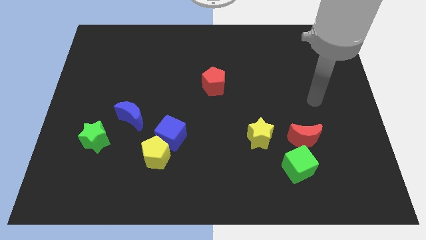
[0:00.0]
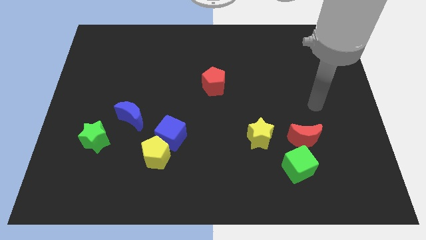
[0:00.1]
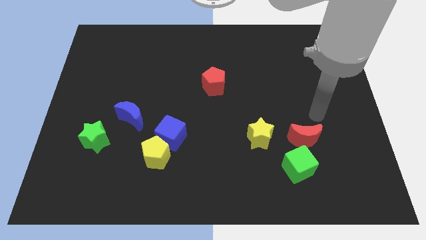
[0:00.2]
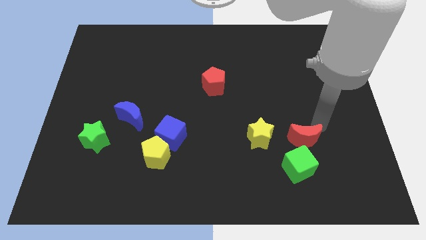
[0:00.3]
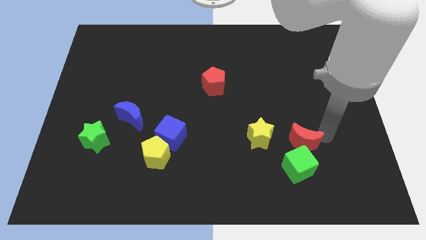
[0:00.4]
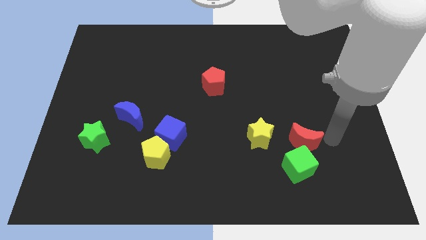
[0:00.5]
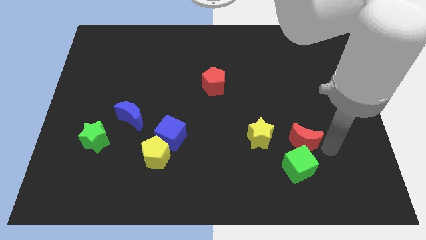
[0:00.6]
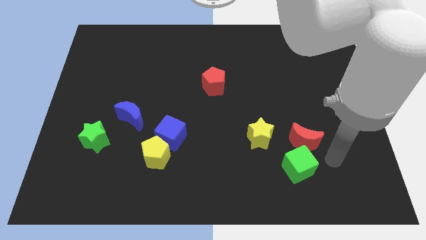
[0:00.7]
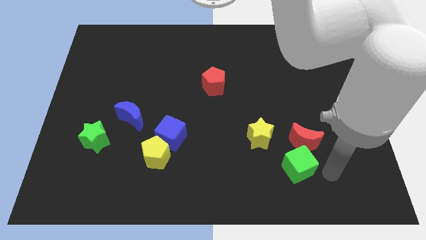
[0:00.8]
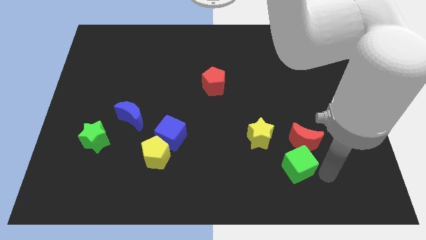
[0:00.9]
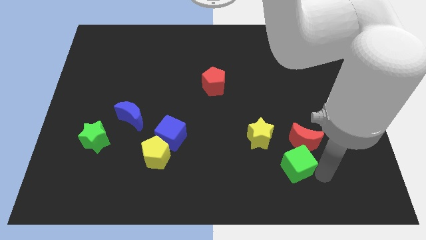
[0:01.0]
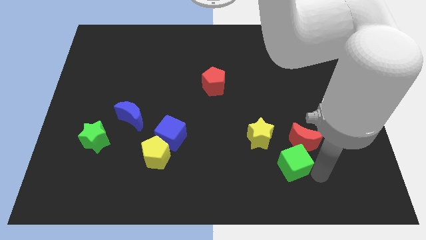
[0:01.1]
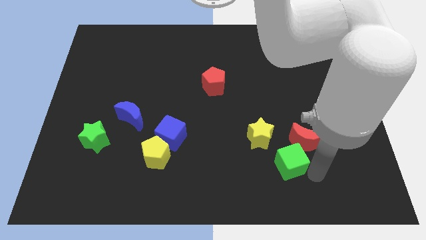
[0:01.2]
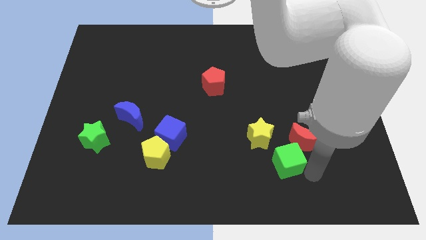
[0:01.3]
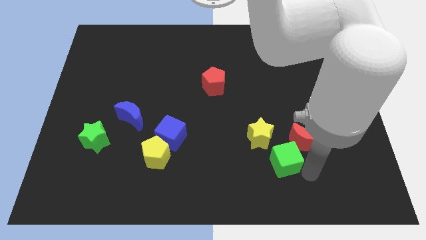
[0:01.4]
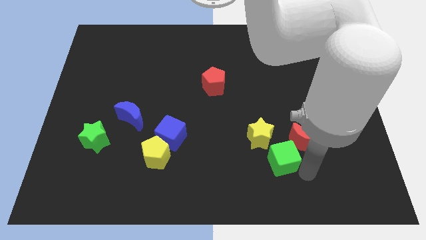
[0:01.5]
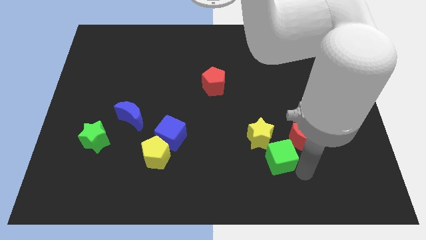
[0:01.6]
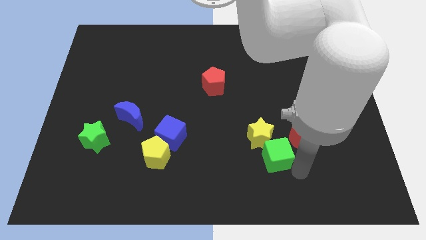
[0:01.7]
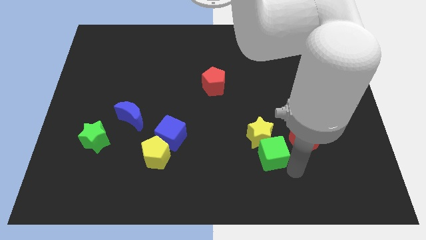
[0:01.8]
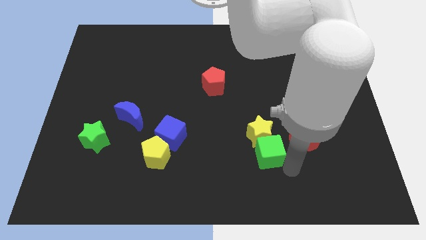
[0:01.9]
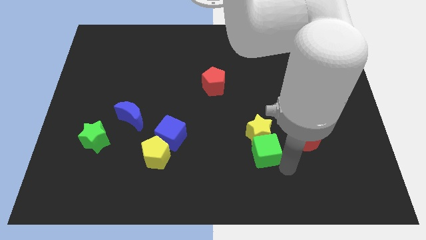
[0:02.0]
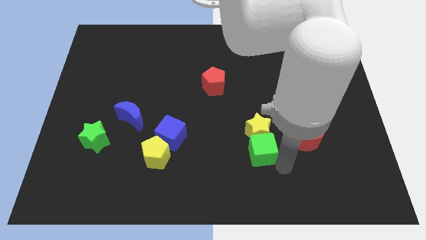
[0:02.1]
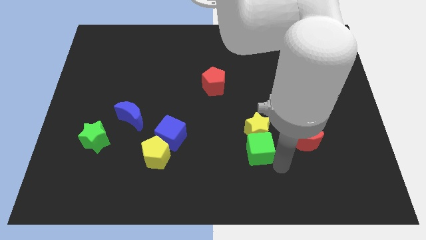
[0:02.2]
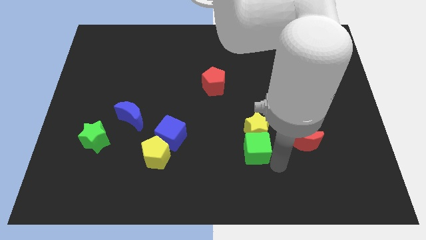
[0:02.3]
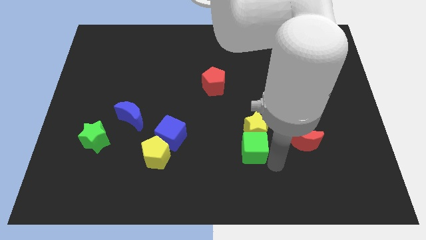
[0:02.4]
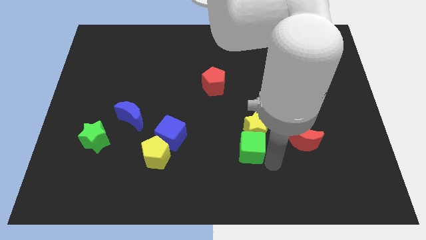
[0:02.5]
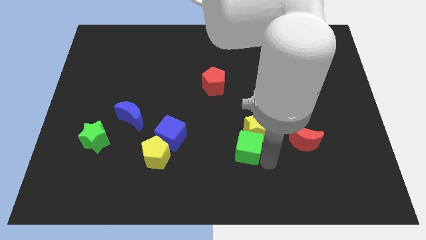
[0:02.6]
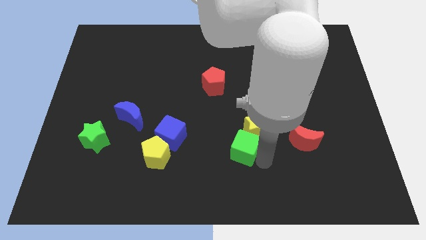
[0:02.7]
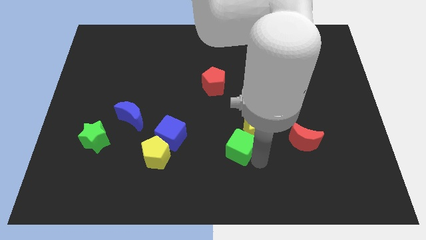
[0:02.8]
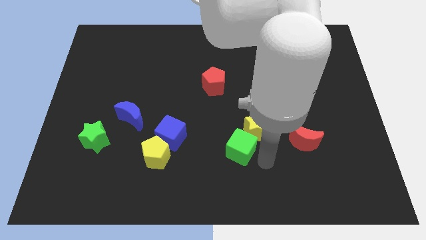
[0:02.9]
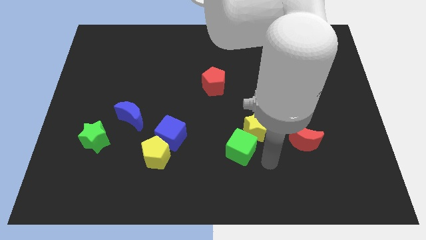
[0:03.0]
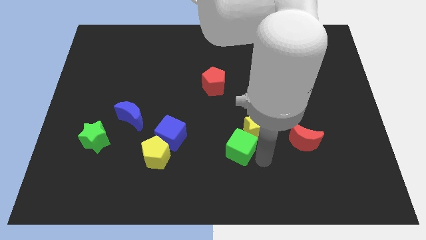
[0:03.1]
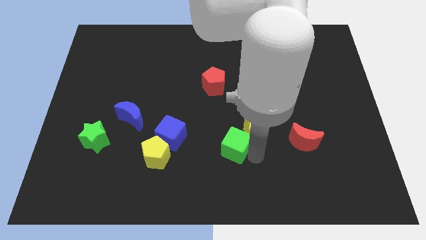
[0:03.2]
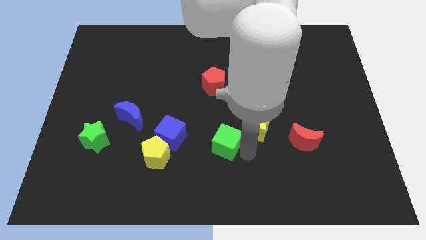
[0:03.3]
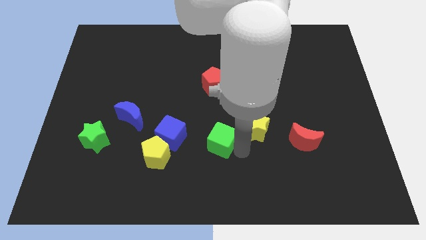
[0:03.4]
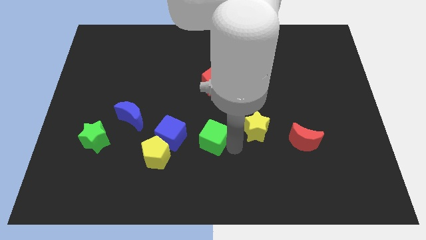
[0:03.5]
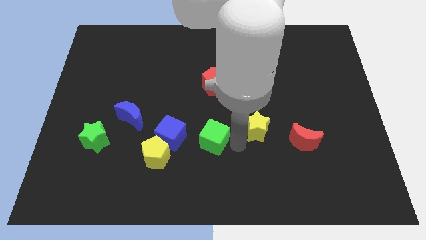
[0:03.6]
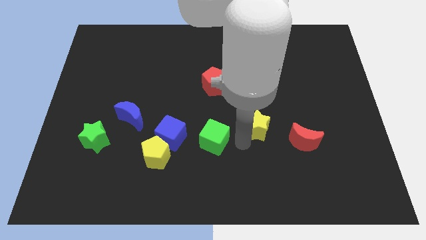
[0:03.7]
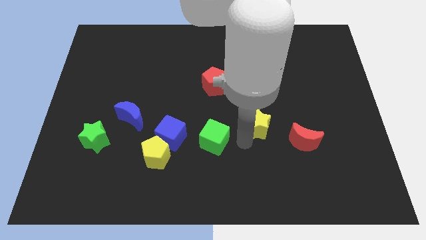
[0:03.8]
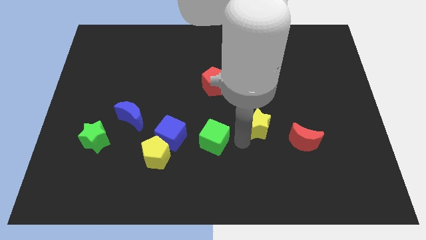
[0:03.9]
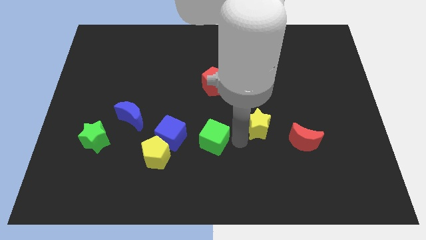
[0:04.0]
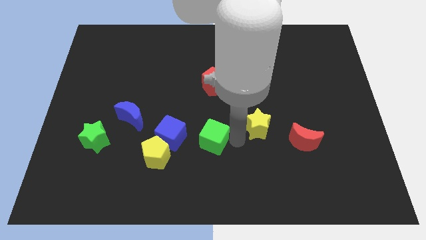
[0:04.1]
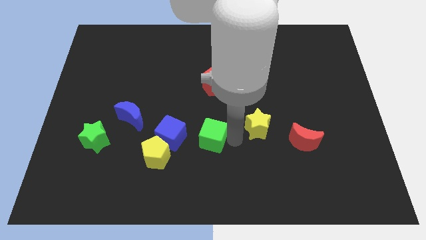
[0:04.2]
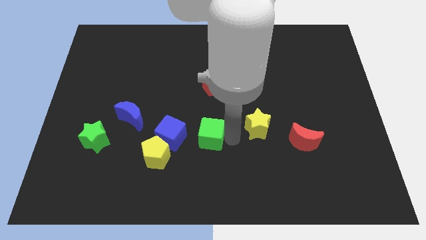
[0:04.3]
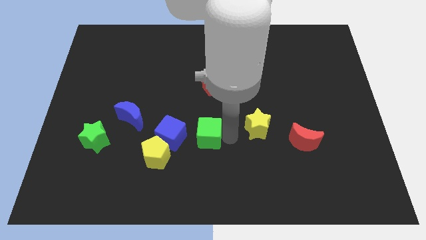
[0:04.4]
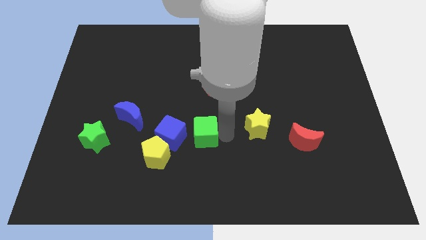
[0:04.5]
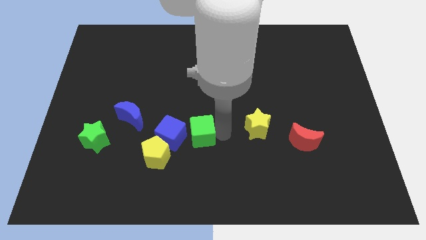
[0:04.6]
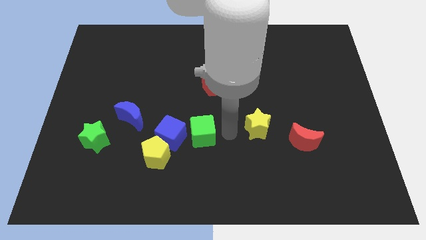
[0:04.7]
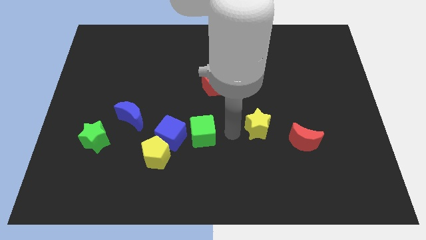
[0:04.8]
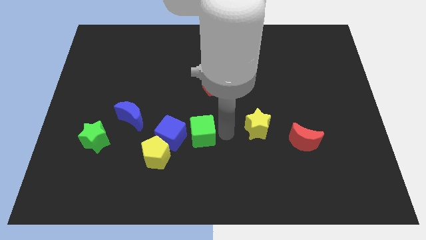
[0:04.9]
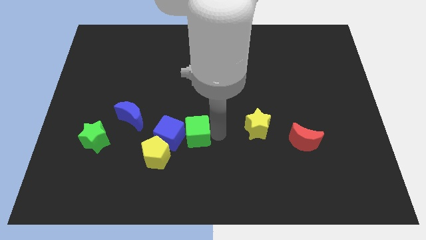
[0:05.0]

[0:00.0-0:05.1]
move the green cube towards the blue cube

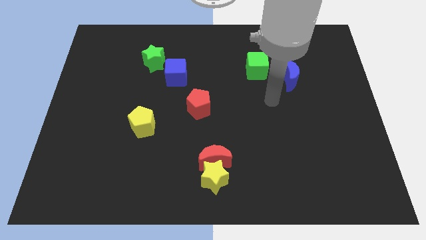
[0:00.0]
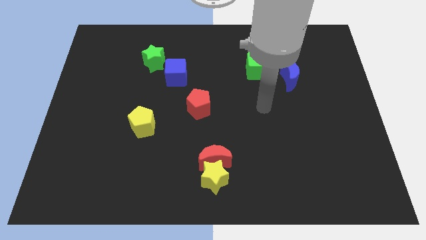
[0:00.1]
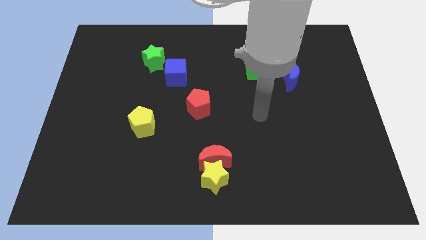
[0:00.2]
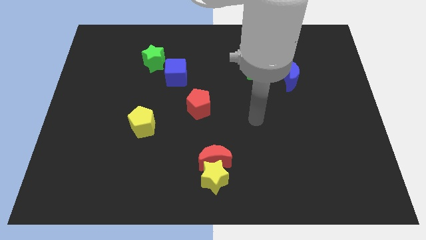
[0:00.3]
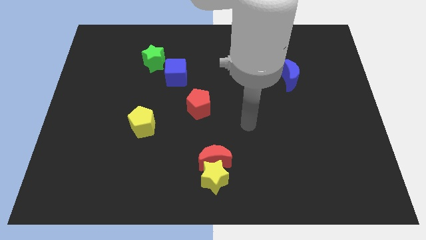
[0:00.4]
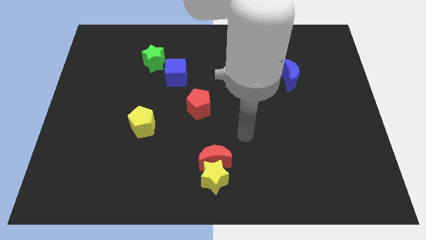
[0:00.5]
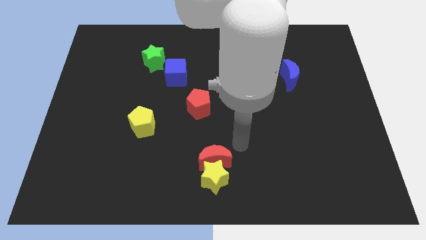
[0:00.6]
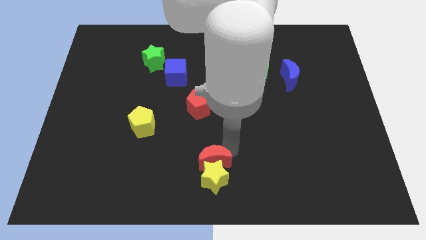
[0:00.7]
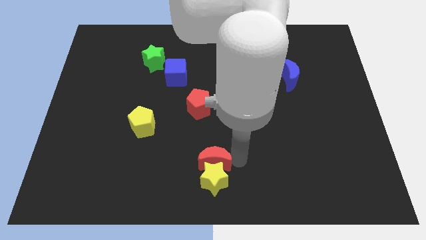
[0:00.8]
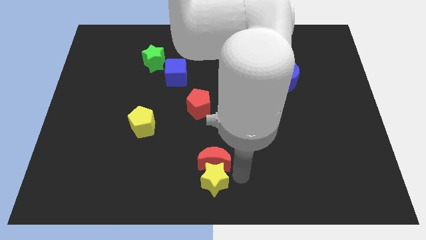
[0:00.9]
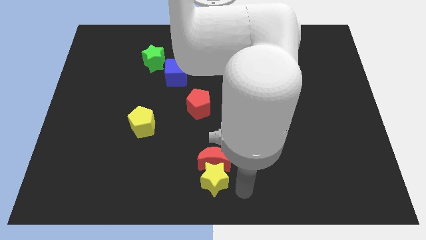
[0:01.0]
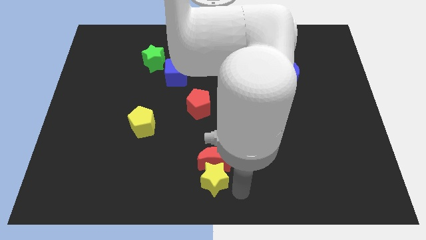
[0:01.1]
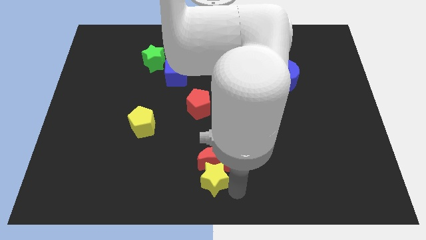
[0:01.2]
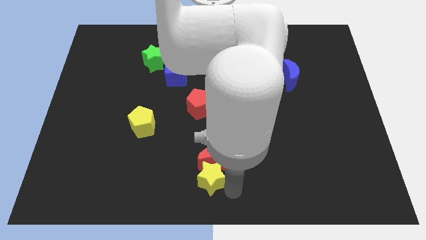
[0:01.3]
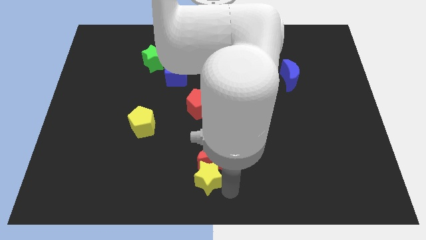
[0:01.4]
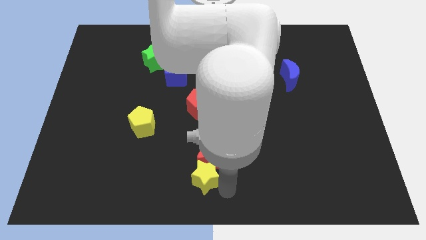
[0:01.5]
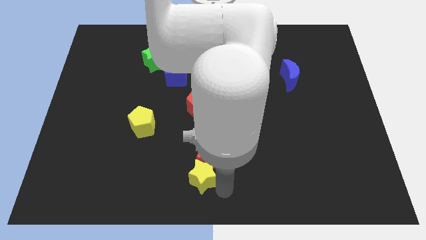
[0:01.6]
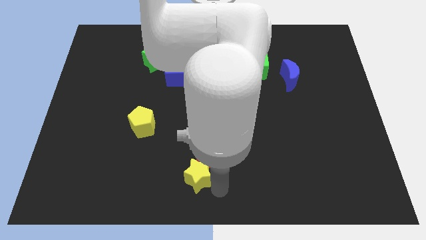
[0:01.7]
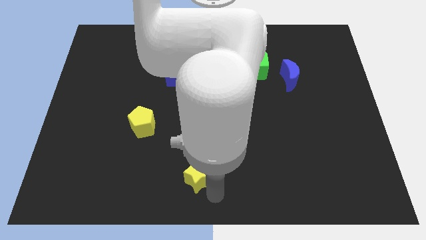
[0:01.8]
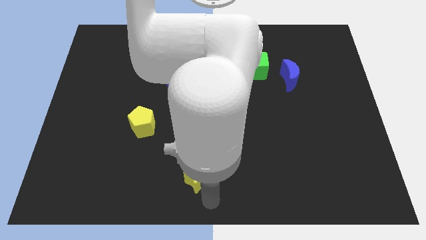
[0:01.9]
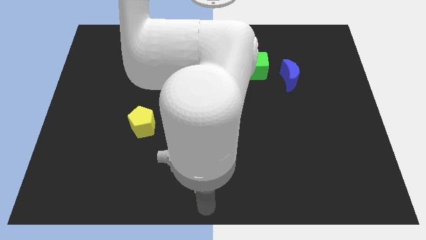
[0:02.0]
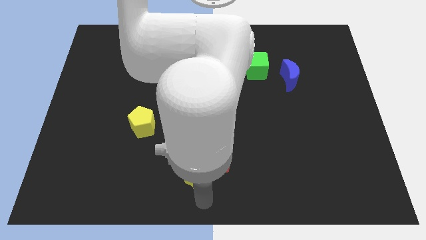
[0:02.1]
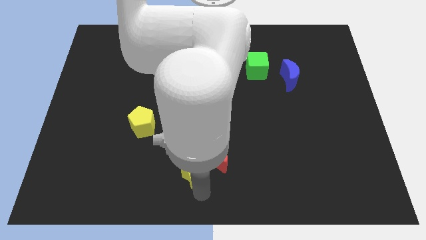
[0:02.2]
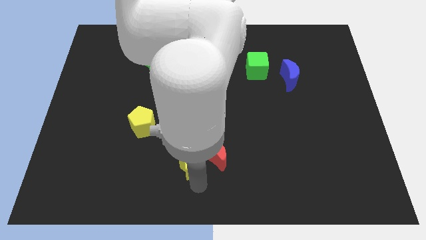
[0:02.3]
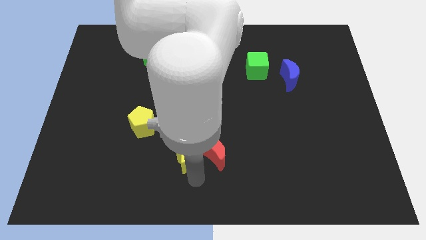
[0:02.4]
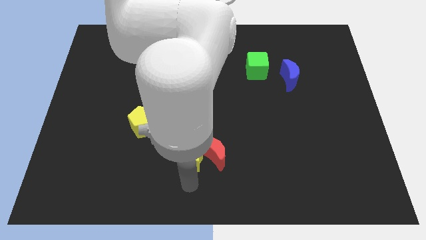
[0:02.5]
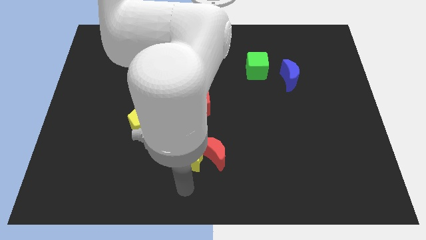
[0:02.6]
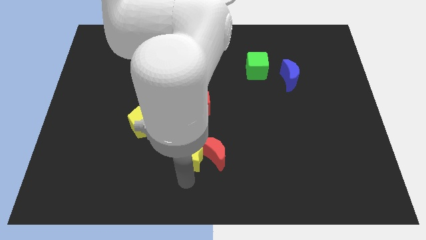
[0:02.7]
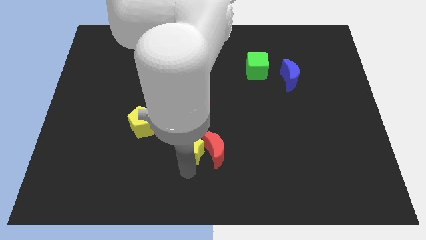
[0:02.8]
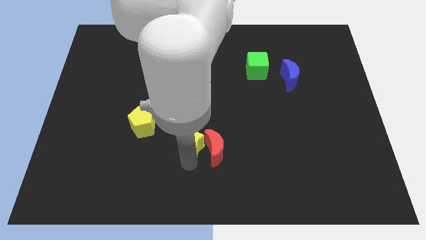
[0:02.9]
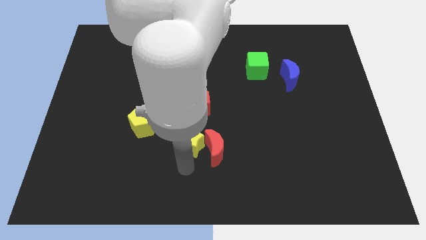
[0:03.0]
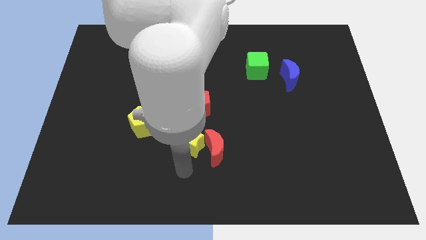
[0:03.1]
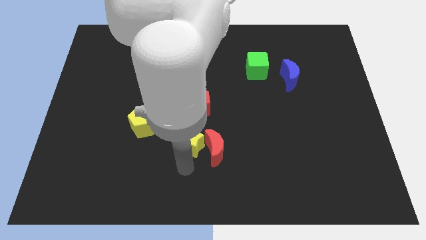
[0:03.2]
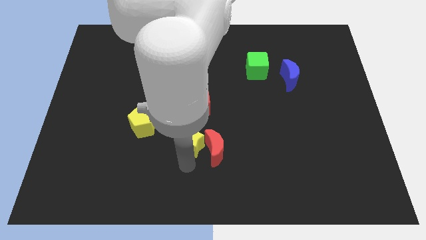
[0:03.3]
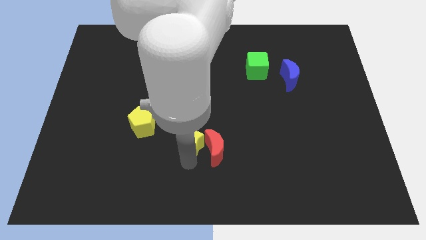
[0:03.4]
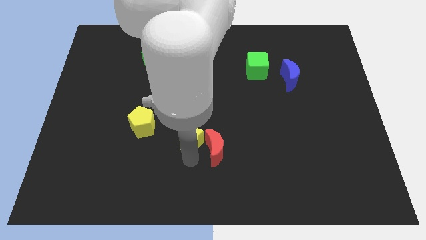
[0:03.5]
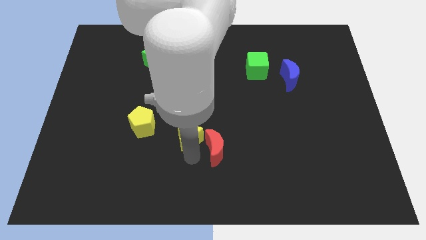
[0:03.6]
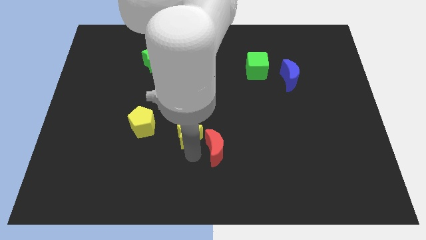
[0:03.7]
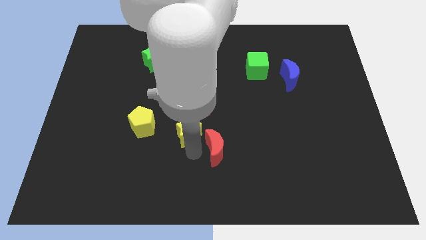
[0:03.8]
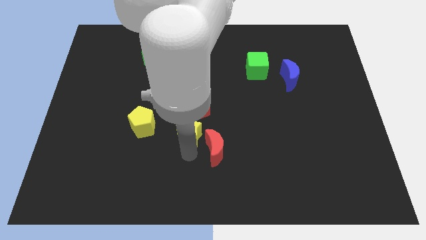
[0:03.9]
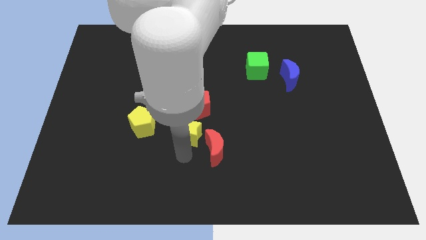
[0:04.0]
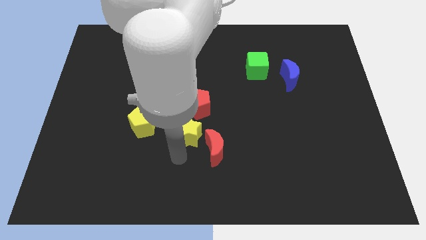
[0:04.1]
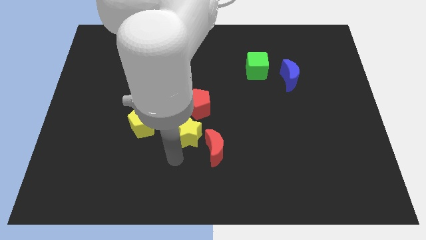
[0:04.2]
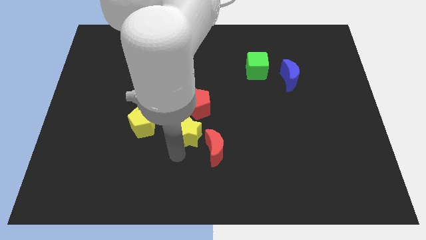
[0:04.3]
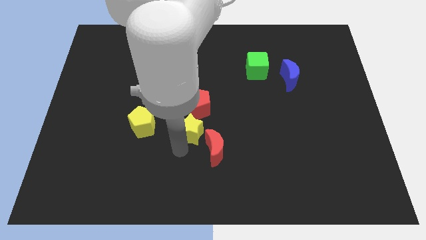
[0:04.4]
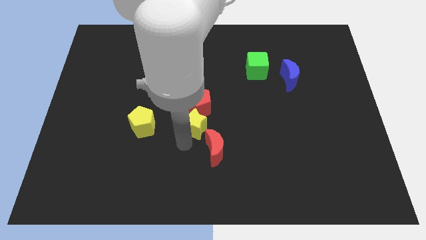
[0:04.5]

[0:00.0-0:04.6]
push the yellow star to the red pentagon
